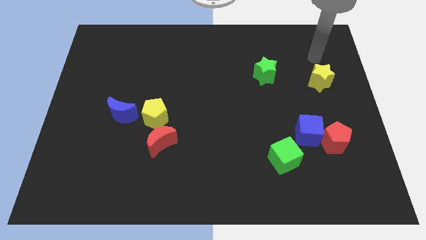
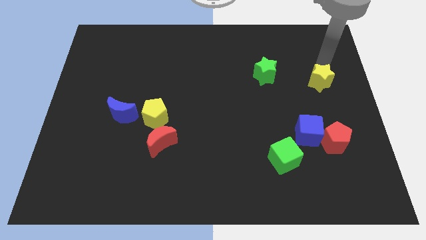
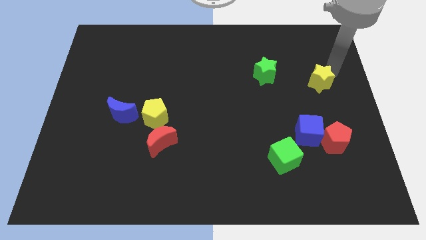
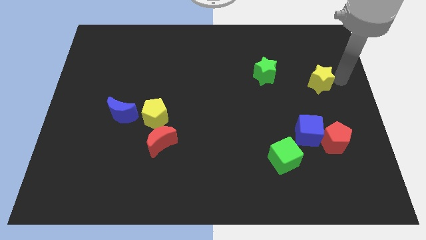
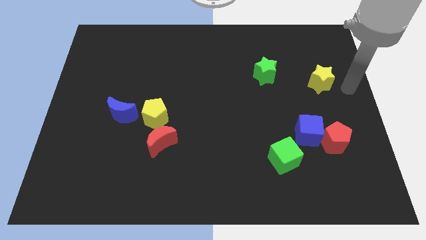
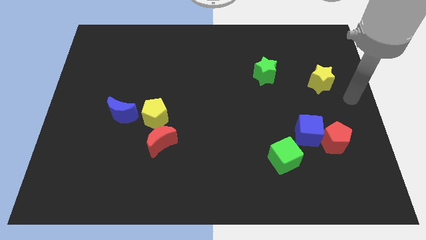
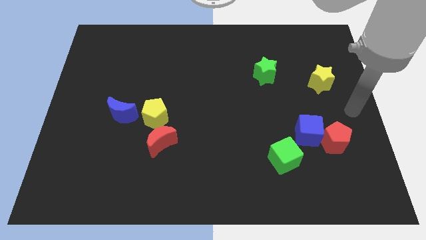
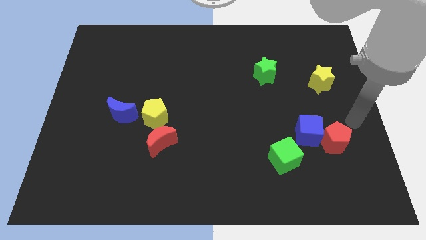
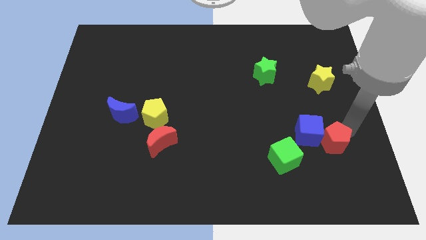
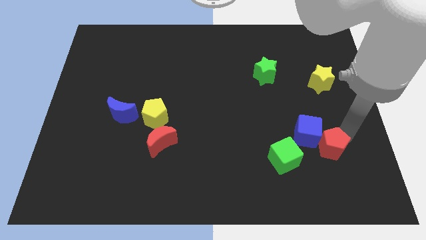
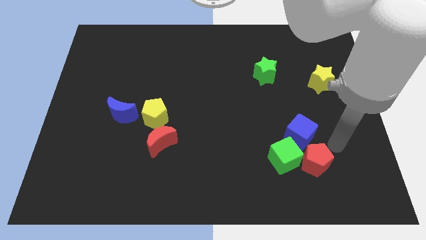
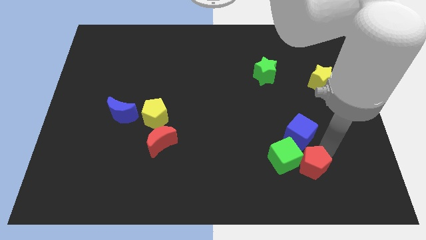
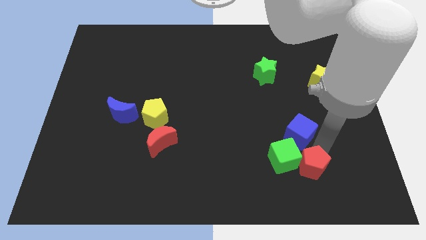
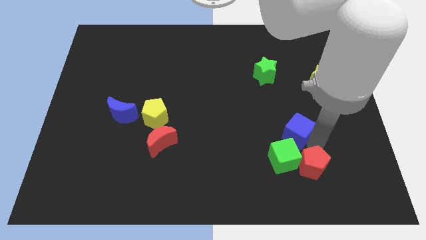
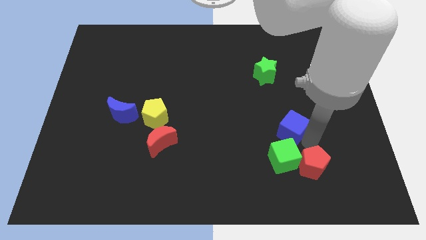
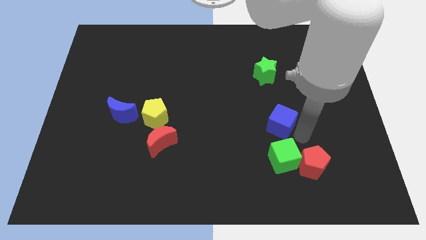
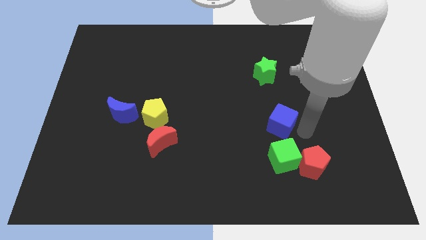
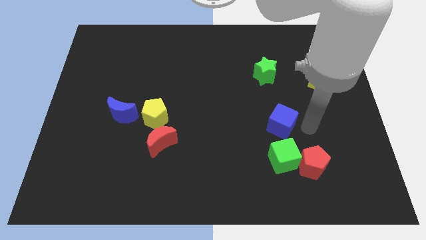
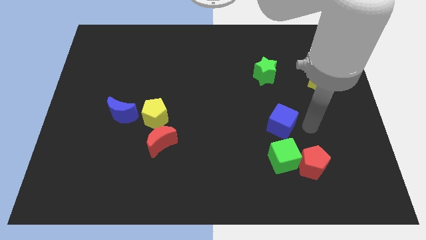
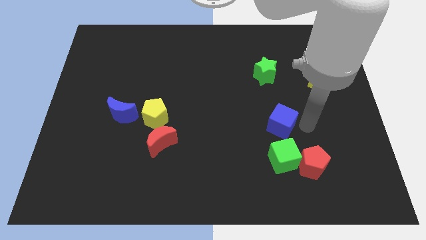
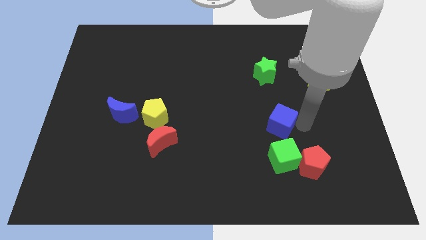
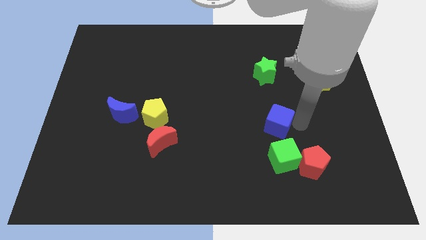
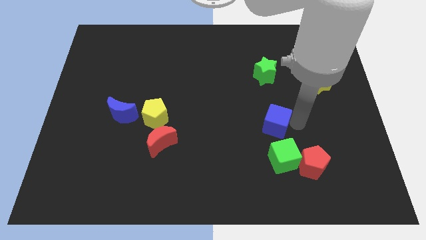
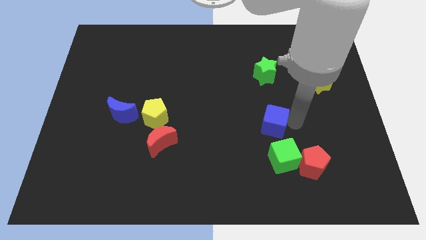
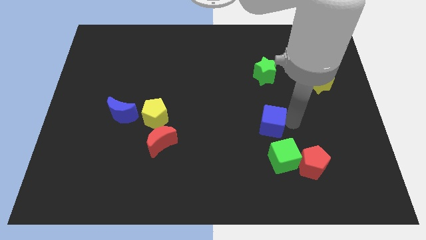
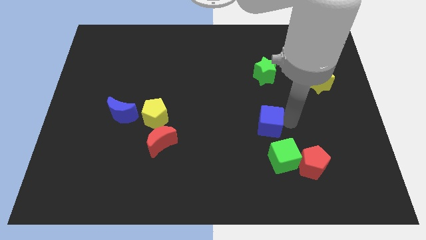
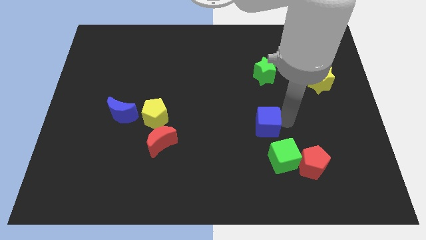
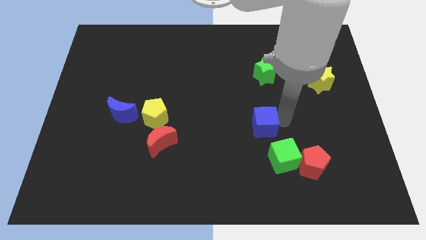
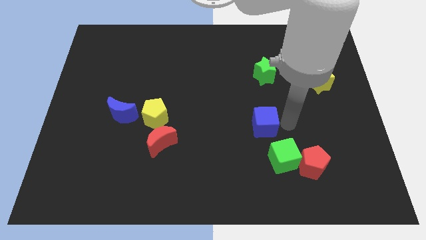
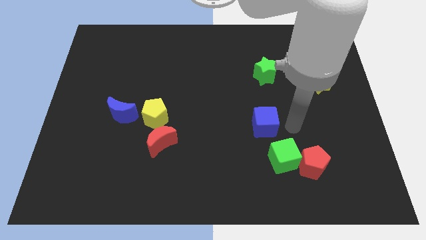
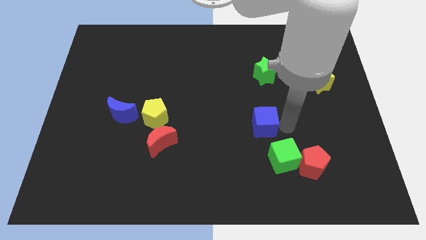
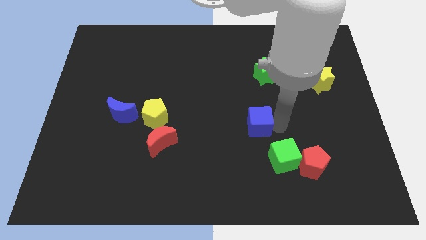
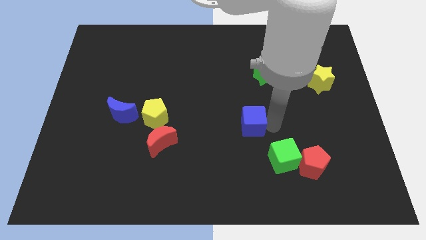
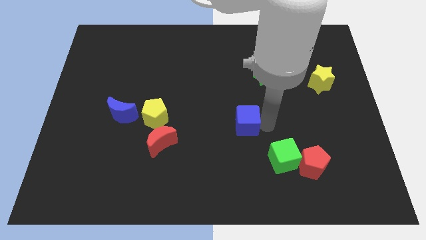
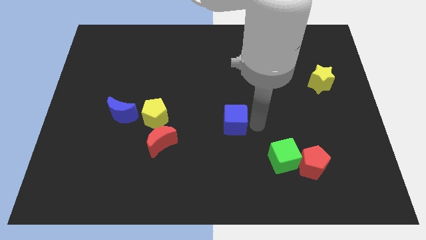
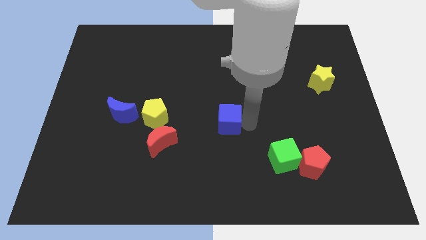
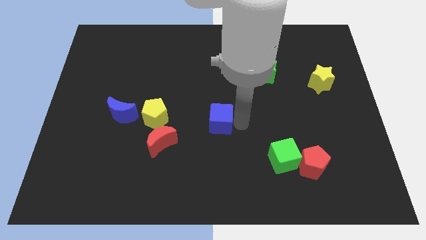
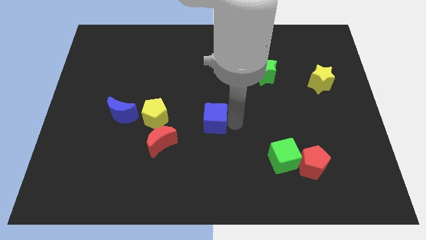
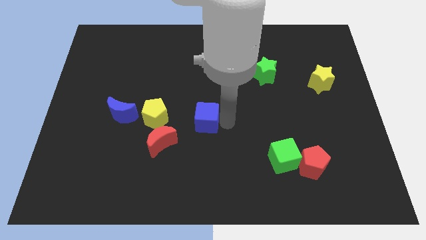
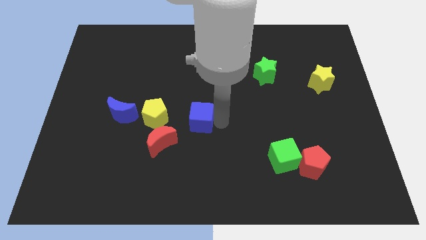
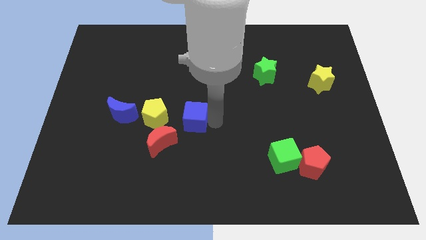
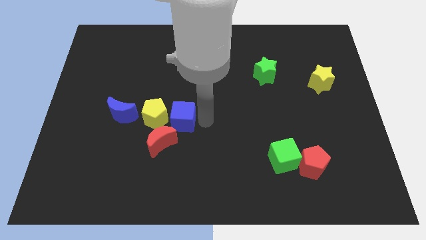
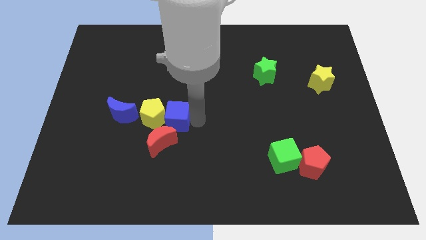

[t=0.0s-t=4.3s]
move the blue cube close to the yellow pentagon

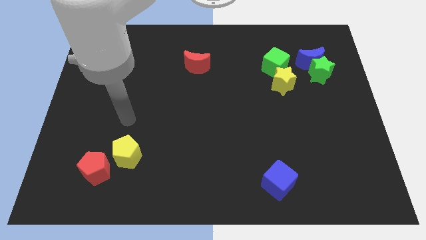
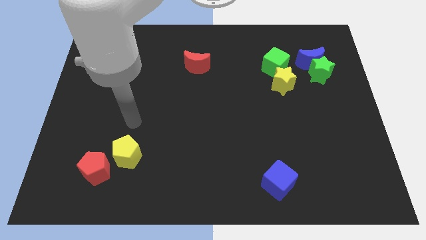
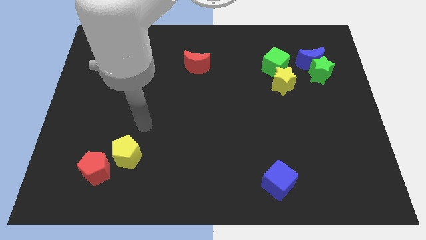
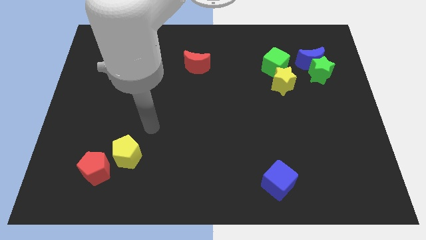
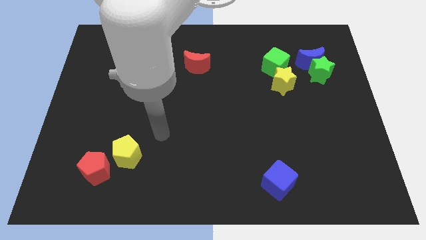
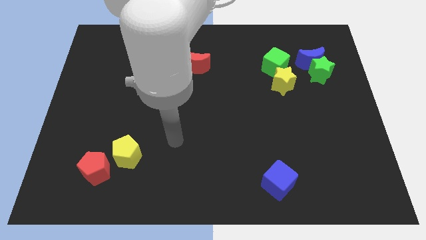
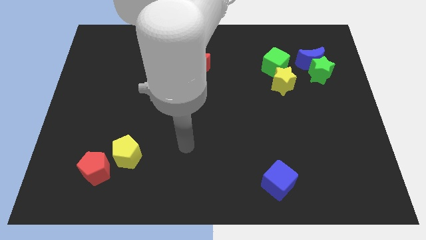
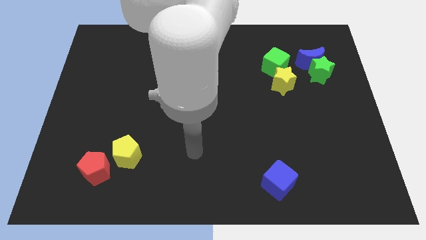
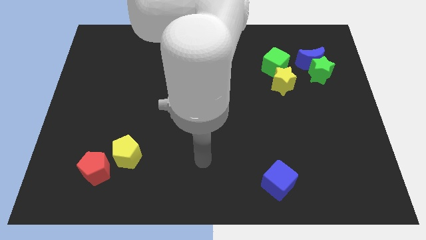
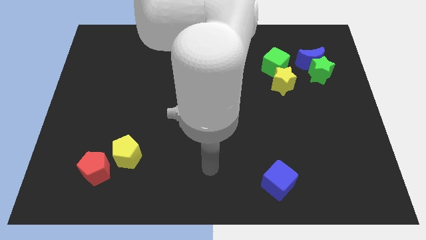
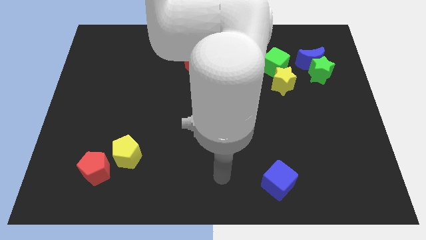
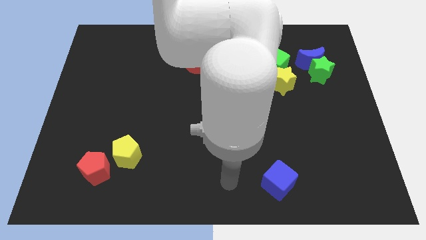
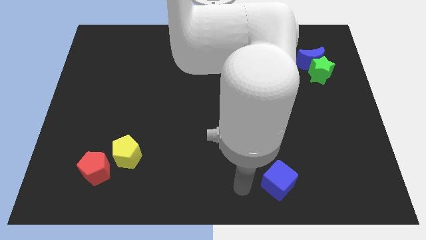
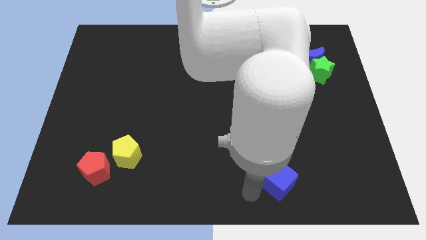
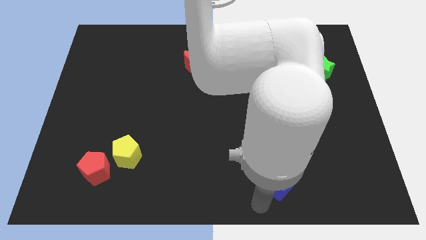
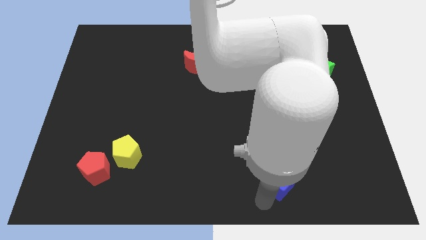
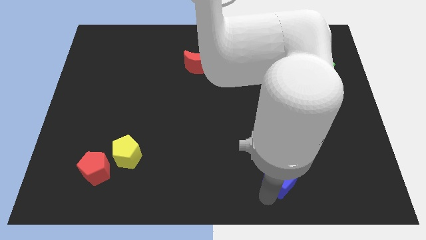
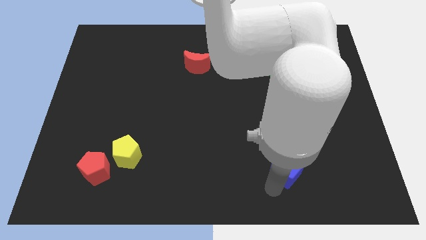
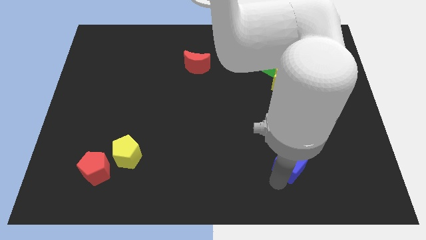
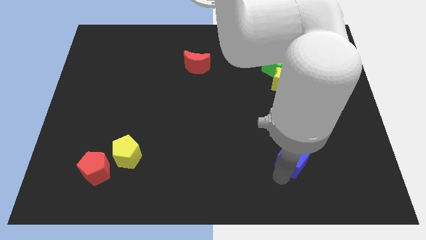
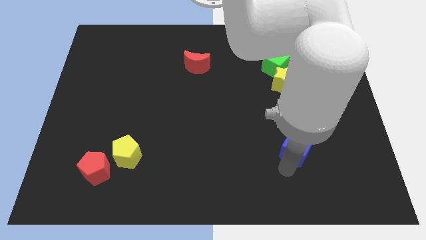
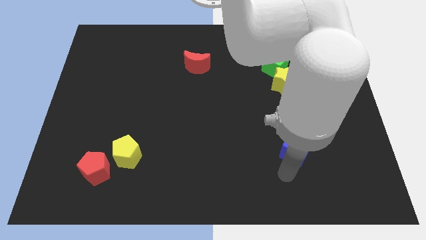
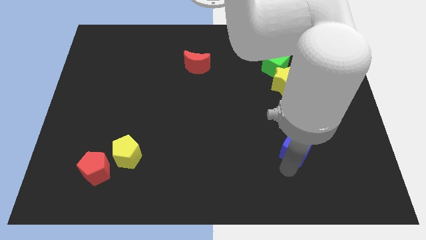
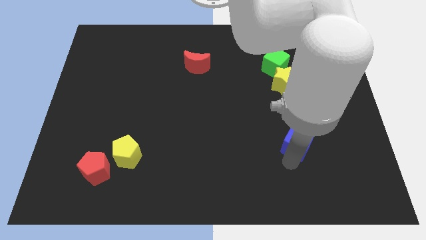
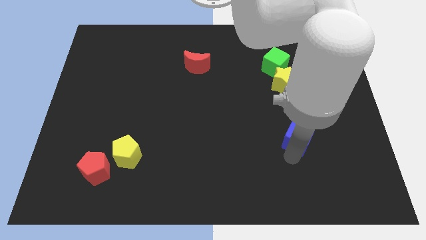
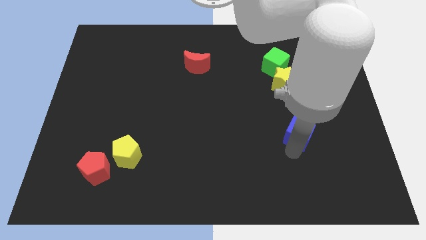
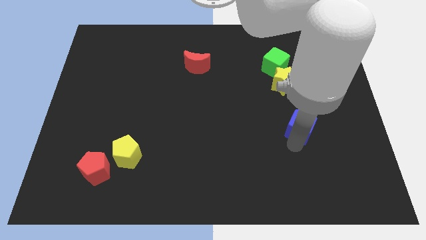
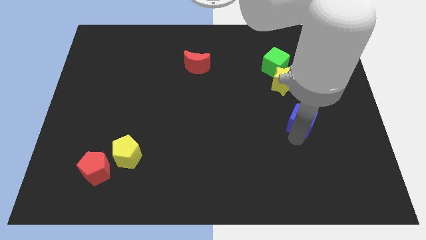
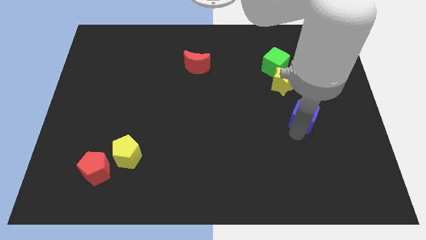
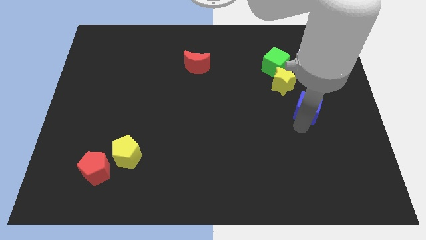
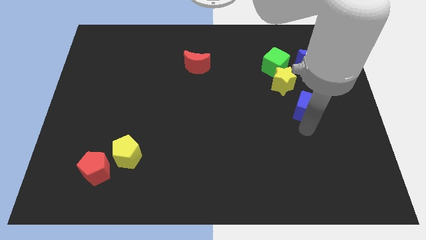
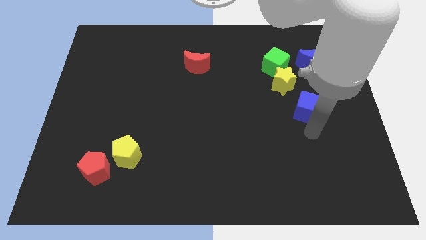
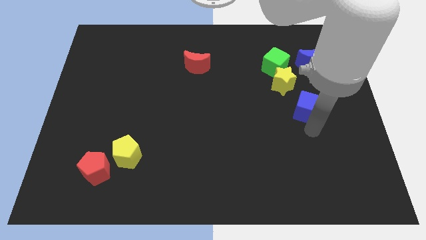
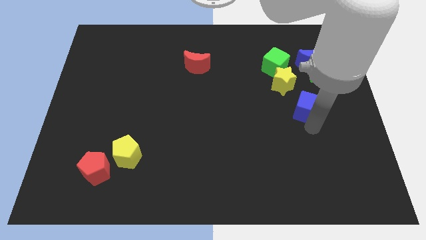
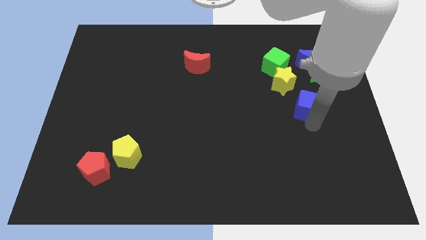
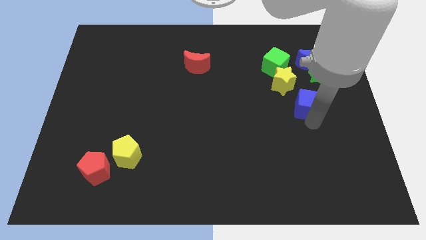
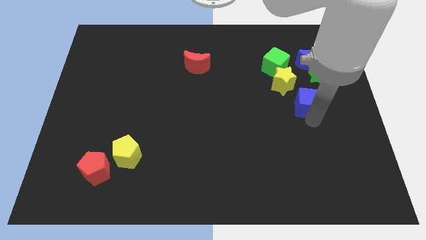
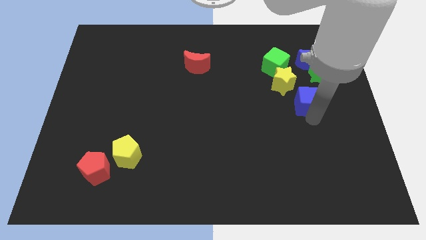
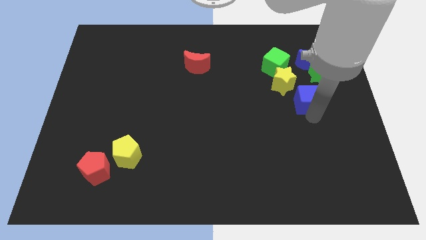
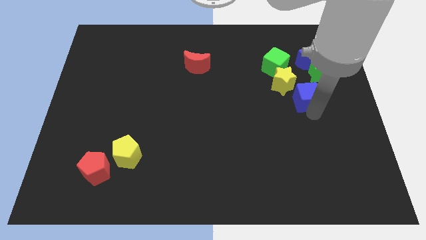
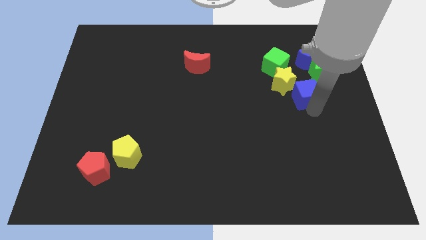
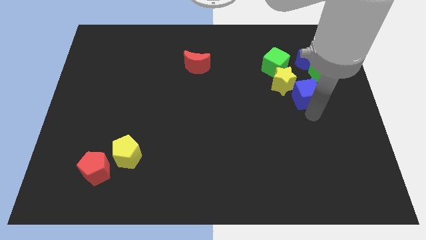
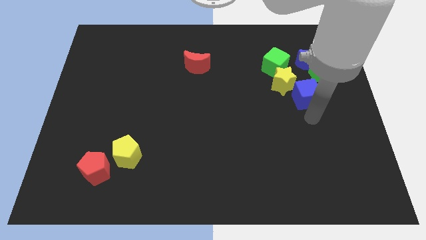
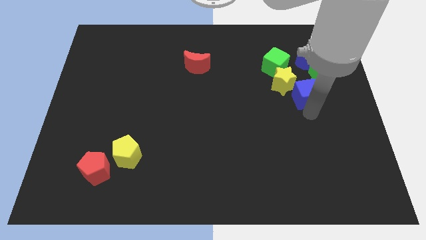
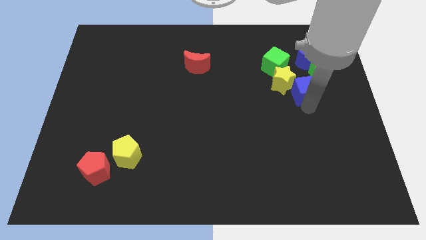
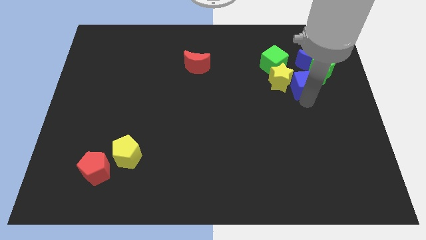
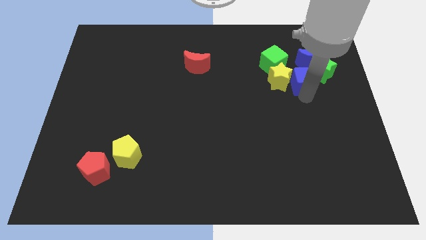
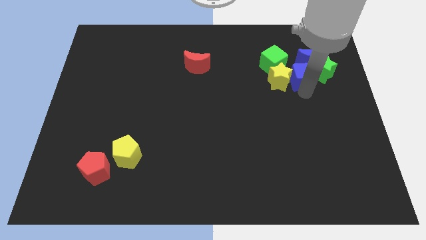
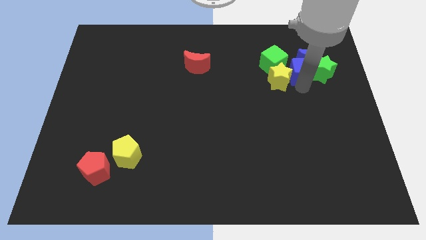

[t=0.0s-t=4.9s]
put the blue cube towards the blue moon
